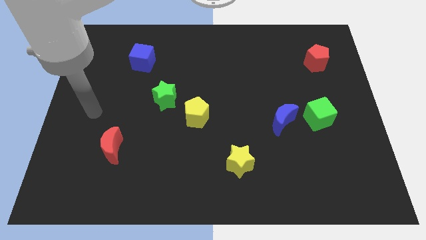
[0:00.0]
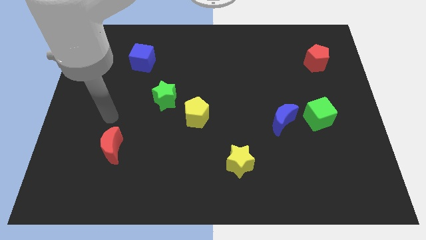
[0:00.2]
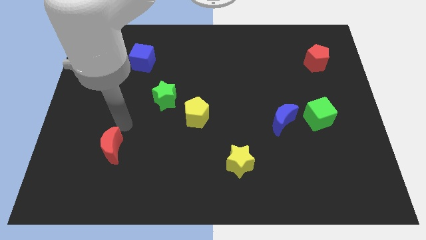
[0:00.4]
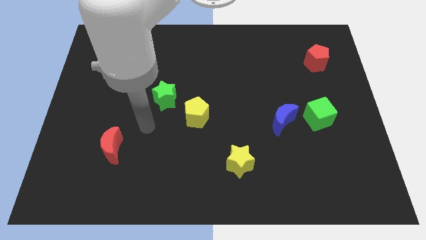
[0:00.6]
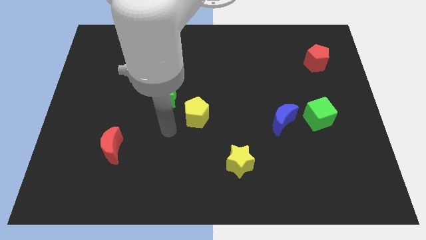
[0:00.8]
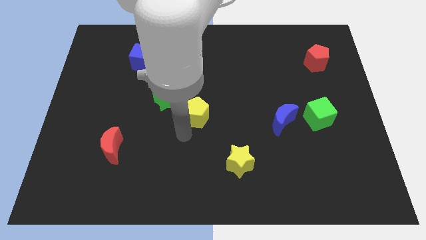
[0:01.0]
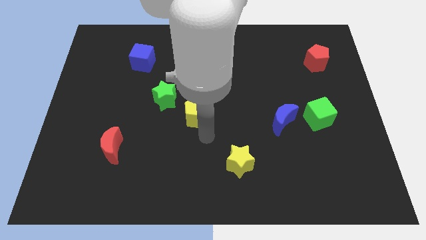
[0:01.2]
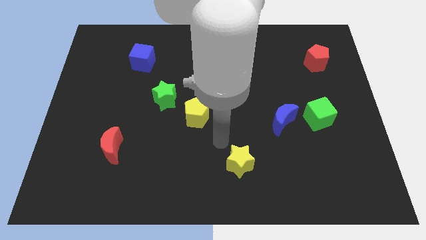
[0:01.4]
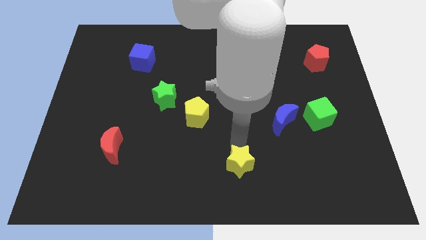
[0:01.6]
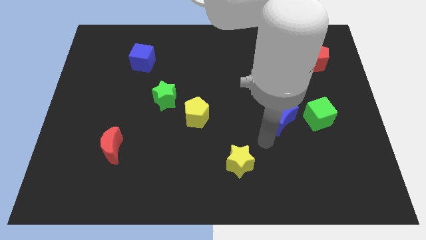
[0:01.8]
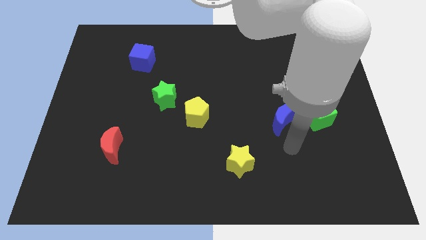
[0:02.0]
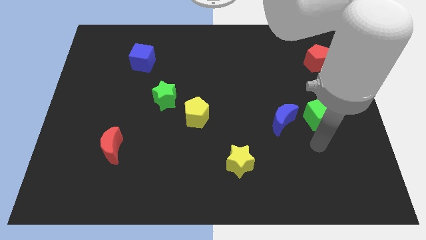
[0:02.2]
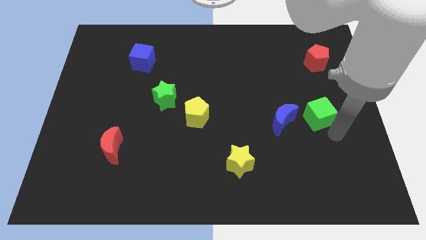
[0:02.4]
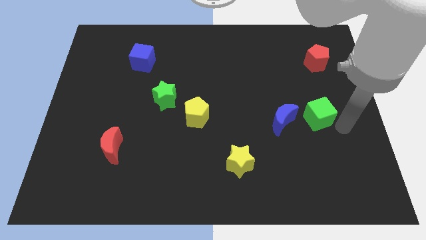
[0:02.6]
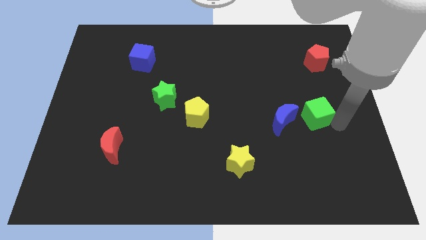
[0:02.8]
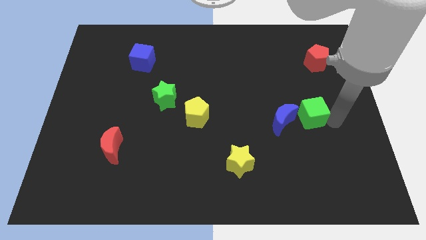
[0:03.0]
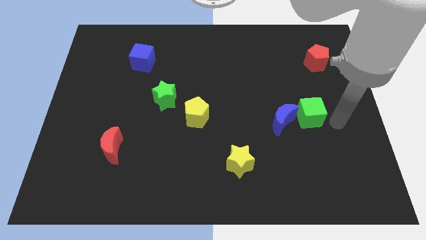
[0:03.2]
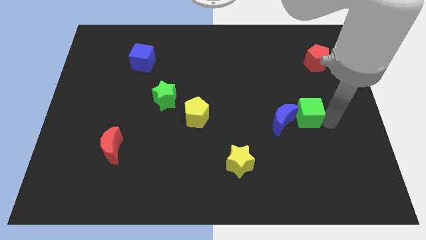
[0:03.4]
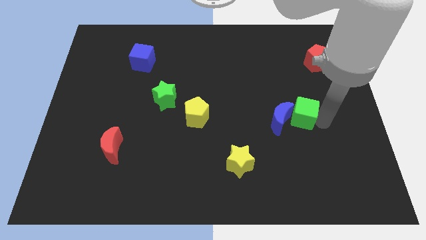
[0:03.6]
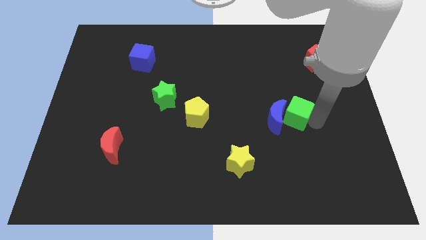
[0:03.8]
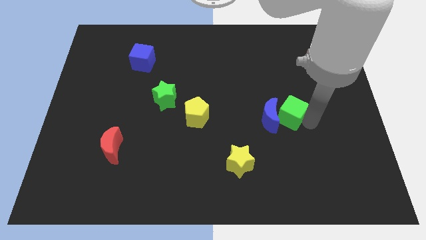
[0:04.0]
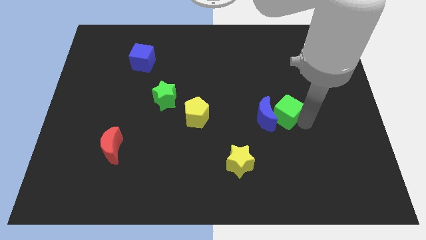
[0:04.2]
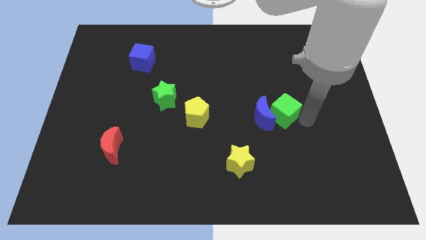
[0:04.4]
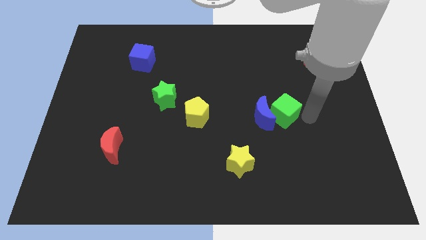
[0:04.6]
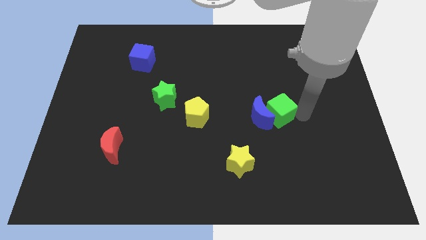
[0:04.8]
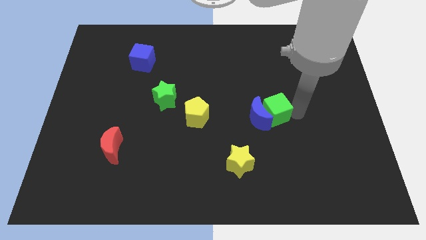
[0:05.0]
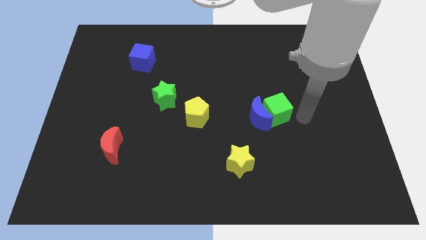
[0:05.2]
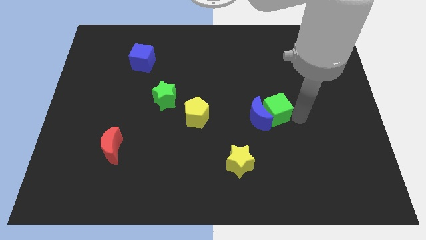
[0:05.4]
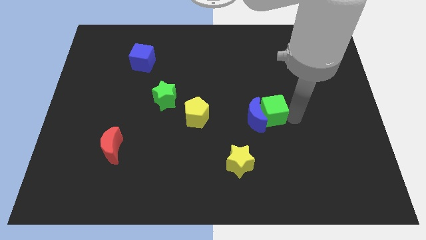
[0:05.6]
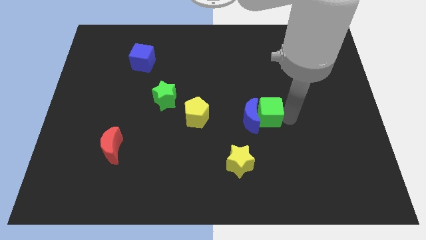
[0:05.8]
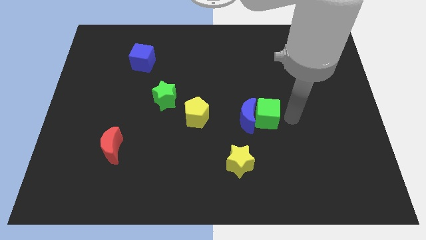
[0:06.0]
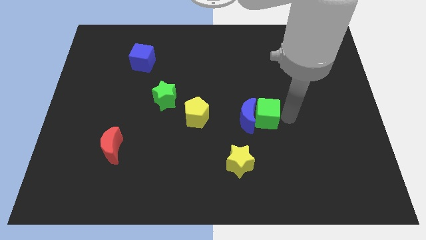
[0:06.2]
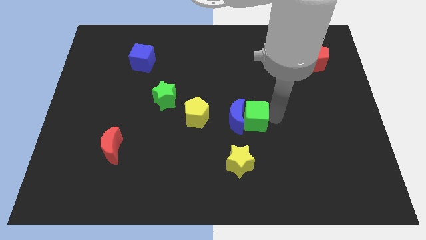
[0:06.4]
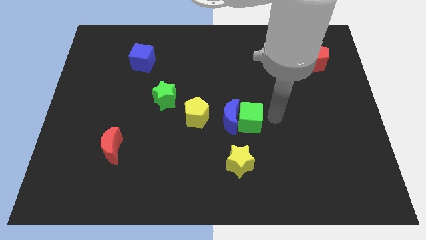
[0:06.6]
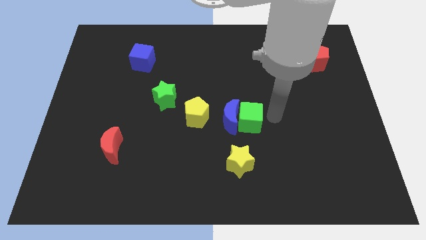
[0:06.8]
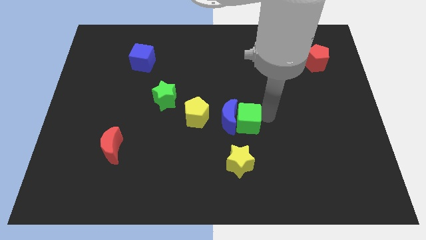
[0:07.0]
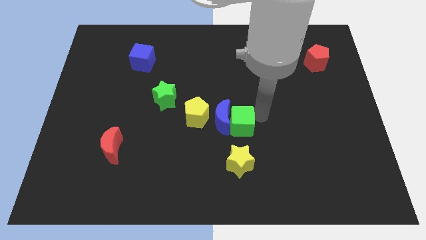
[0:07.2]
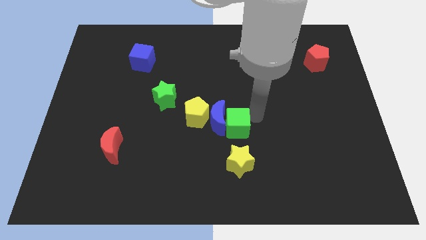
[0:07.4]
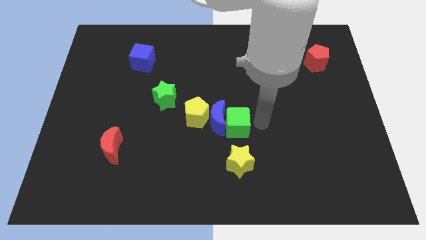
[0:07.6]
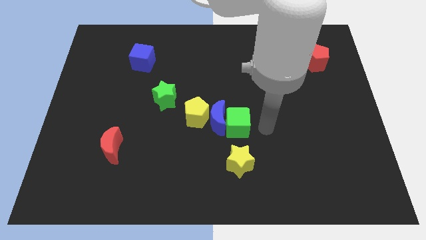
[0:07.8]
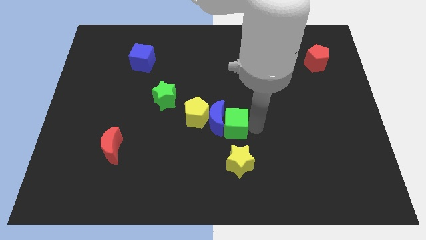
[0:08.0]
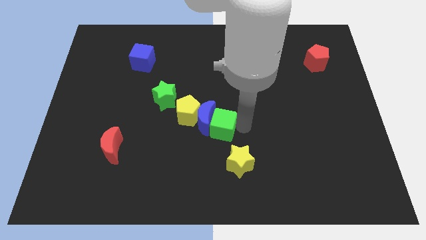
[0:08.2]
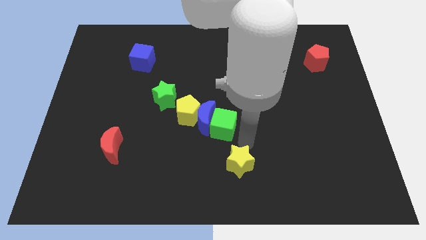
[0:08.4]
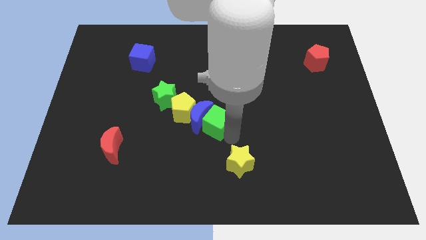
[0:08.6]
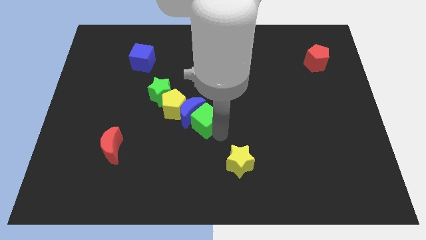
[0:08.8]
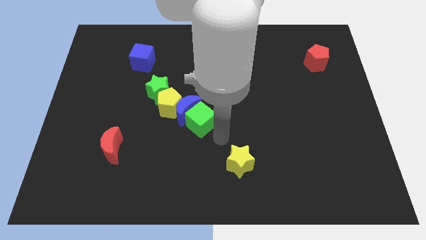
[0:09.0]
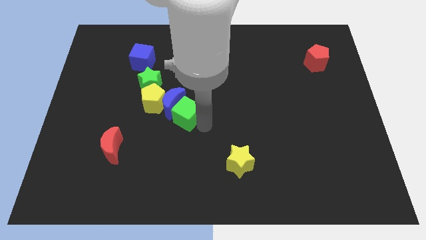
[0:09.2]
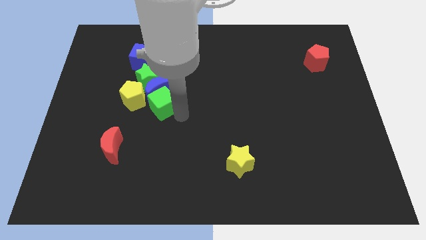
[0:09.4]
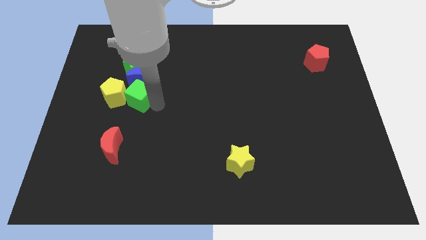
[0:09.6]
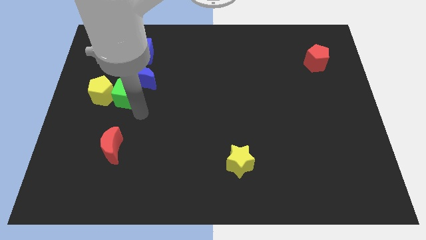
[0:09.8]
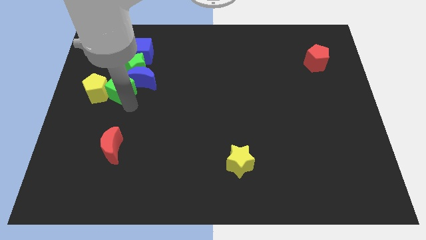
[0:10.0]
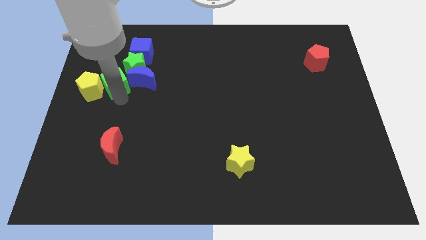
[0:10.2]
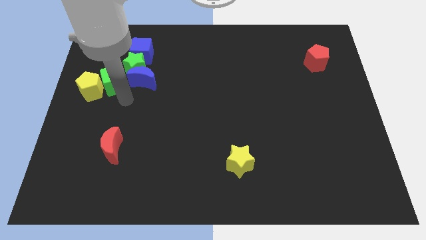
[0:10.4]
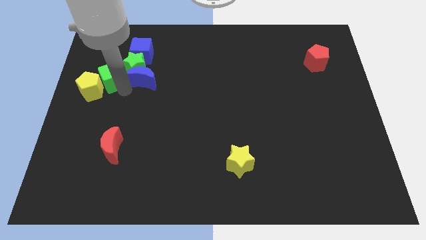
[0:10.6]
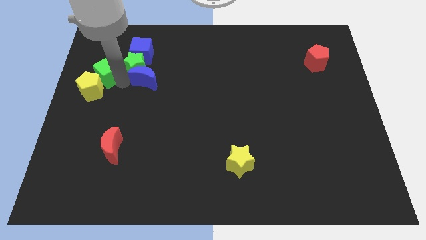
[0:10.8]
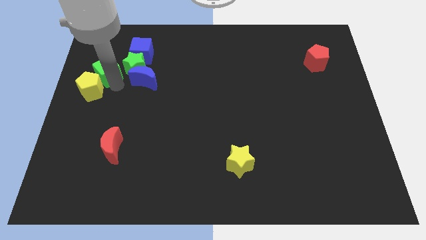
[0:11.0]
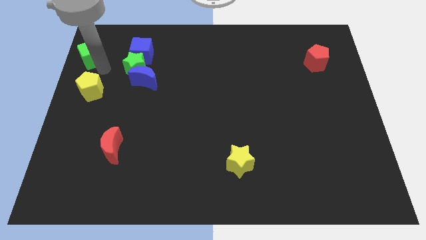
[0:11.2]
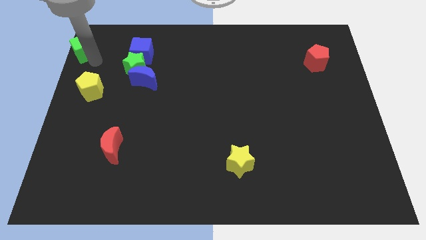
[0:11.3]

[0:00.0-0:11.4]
move the green cube to the top left

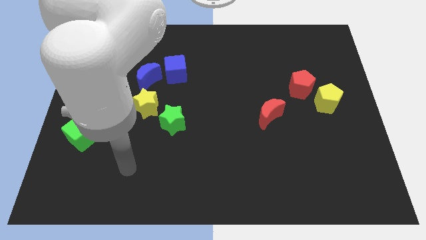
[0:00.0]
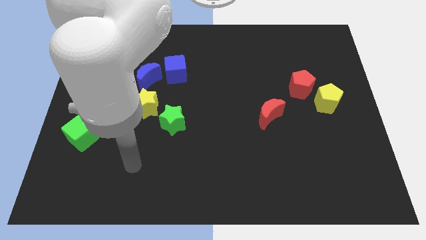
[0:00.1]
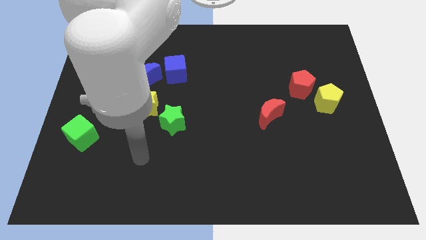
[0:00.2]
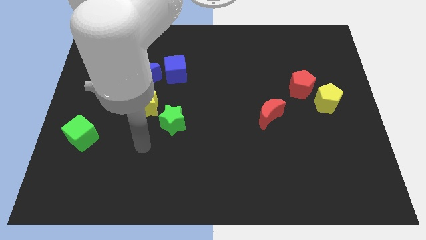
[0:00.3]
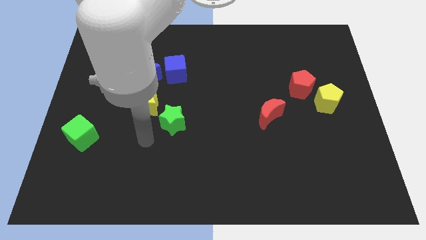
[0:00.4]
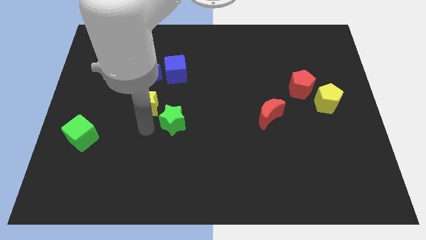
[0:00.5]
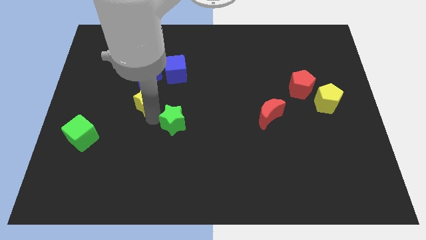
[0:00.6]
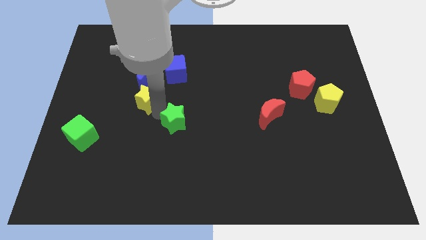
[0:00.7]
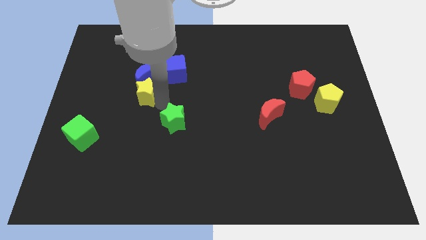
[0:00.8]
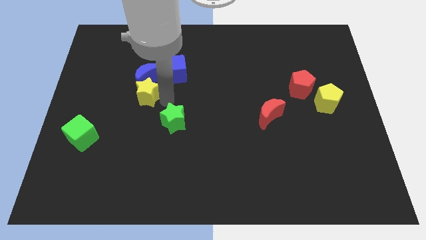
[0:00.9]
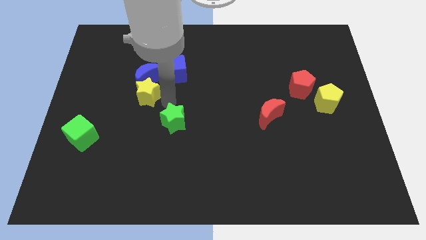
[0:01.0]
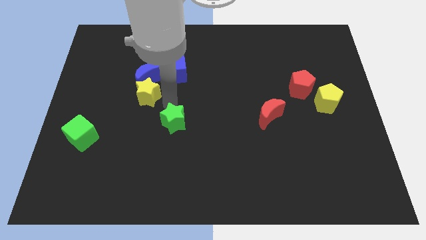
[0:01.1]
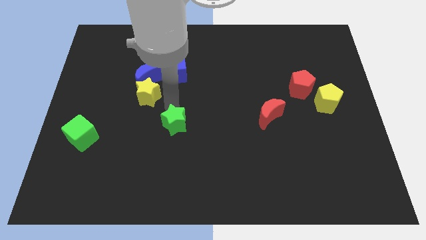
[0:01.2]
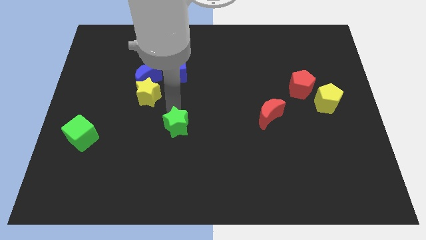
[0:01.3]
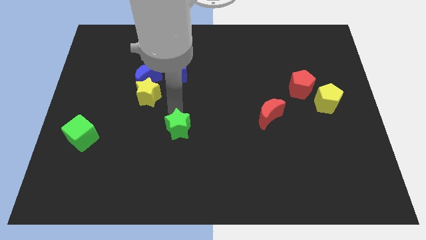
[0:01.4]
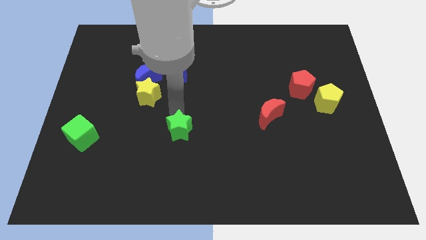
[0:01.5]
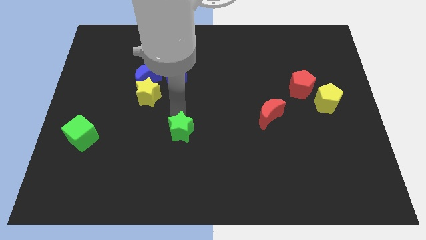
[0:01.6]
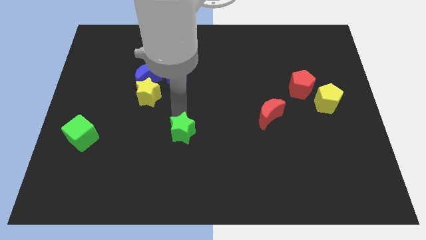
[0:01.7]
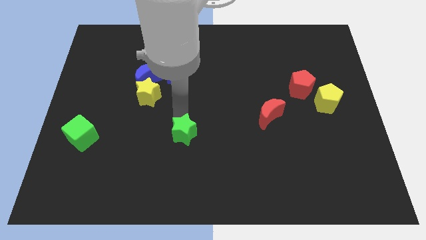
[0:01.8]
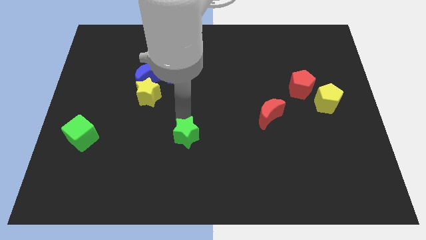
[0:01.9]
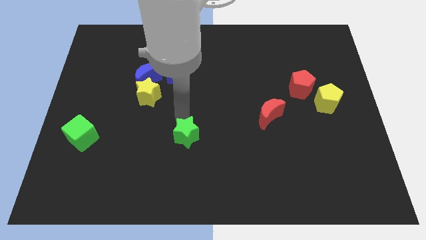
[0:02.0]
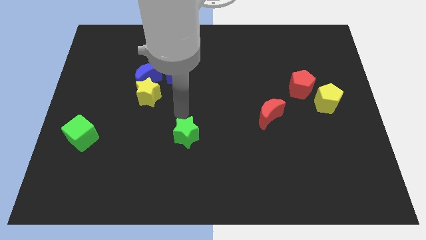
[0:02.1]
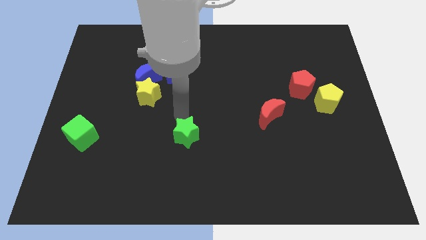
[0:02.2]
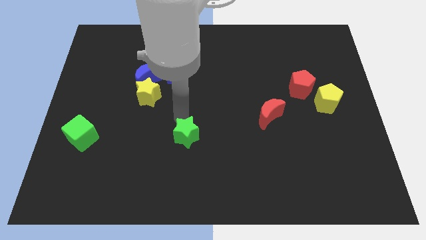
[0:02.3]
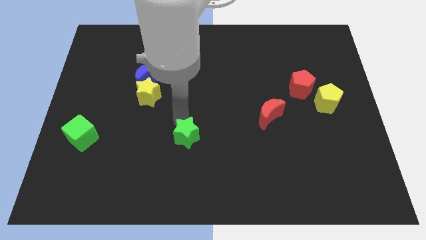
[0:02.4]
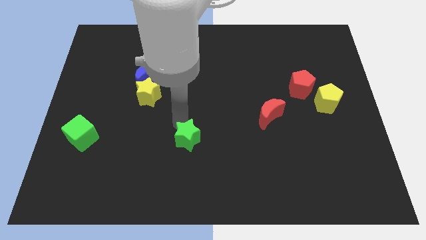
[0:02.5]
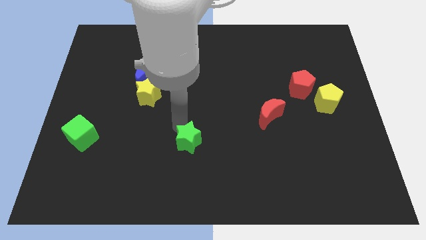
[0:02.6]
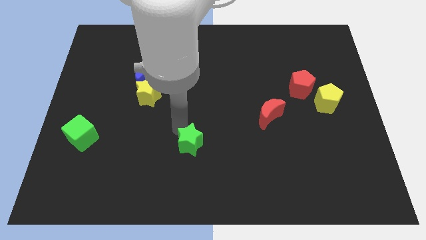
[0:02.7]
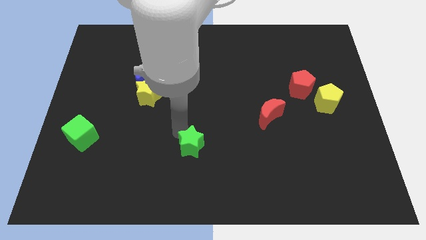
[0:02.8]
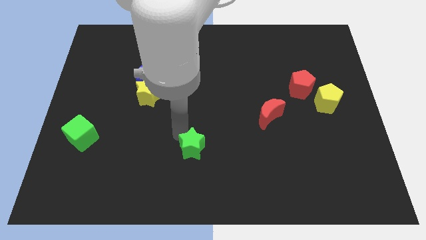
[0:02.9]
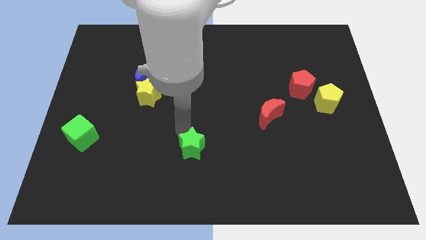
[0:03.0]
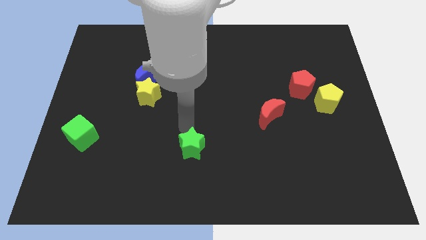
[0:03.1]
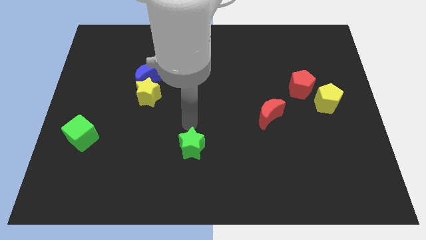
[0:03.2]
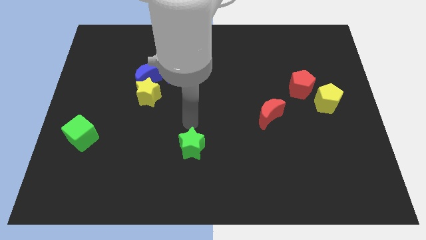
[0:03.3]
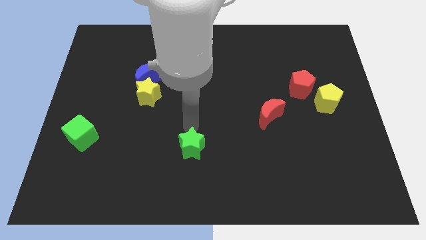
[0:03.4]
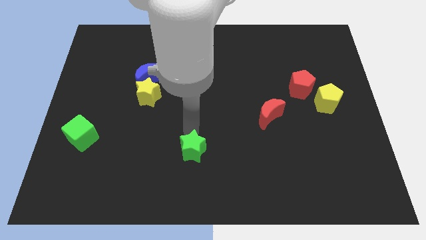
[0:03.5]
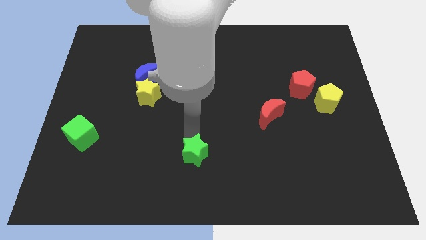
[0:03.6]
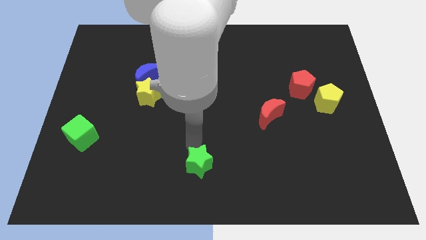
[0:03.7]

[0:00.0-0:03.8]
move the green star to the bottom side
